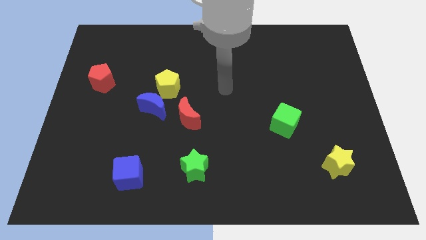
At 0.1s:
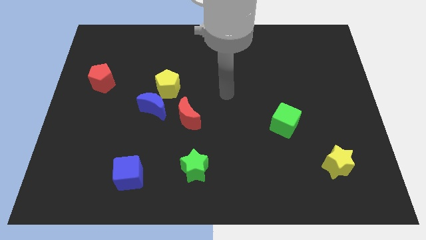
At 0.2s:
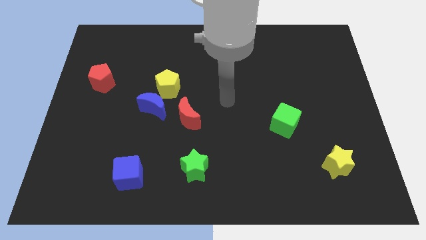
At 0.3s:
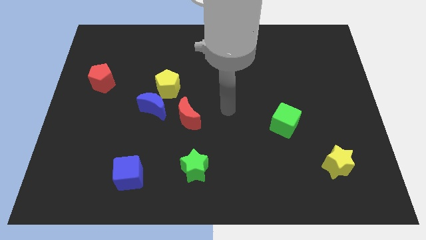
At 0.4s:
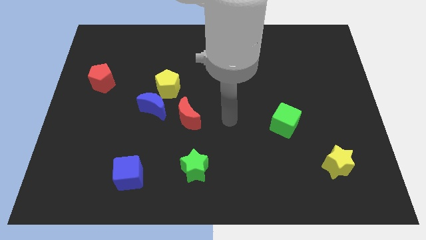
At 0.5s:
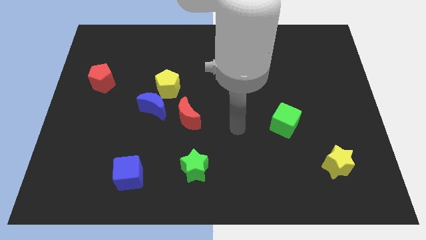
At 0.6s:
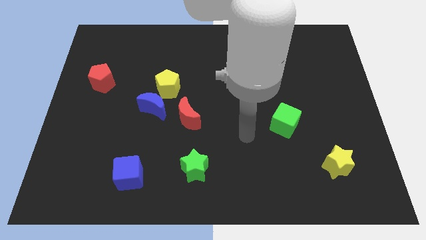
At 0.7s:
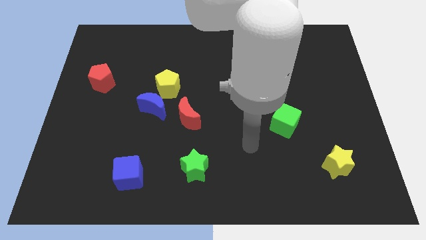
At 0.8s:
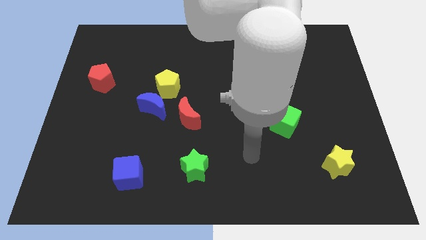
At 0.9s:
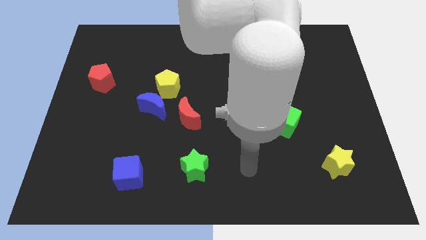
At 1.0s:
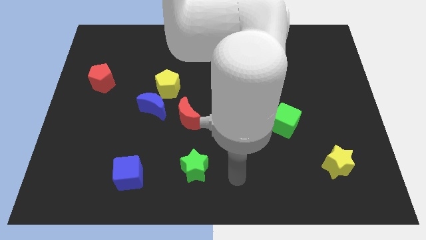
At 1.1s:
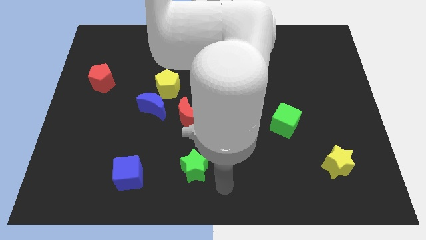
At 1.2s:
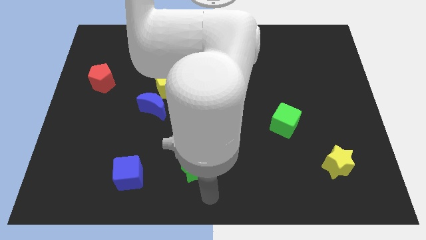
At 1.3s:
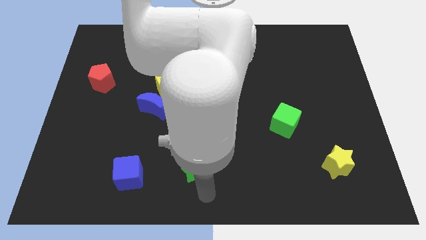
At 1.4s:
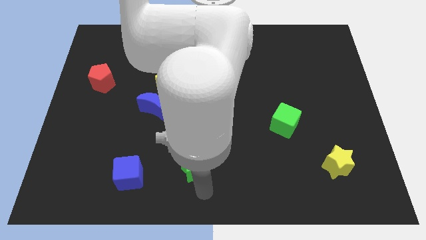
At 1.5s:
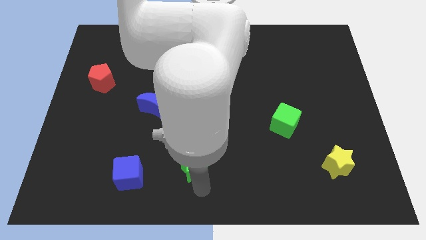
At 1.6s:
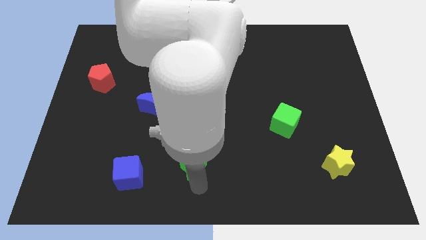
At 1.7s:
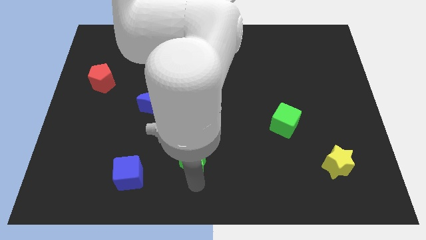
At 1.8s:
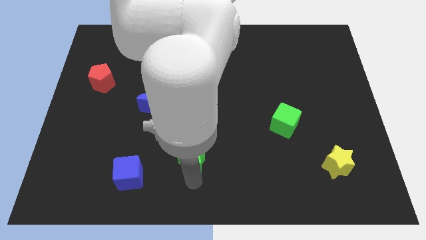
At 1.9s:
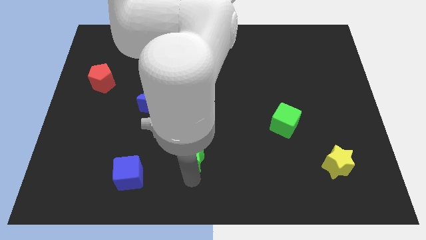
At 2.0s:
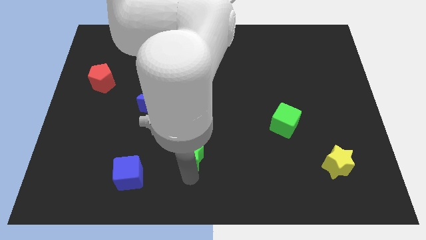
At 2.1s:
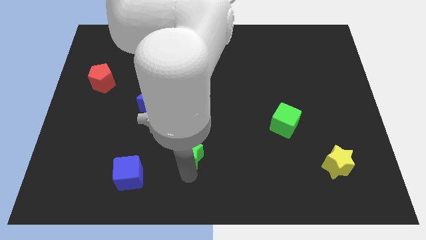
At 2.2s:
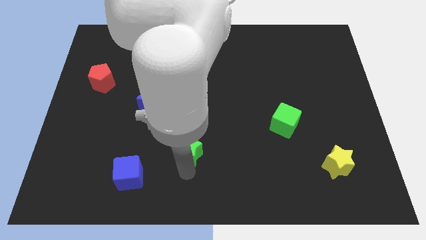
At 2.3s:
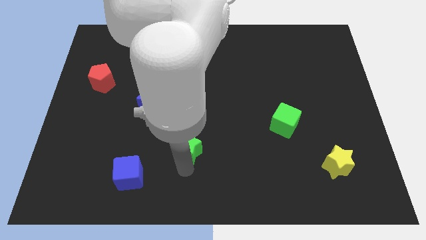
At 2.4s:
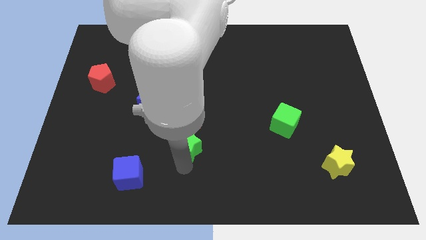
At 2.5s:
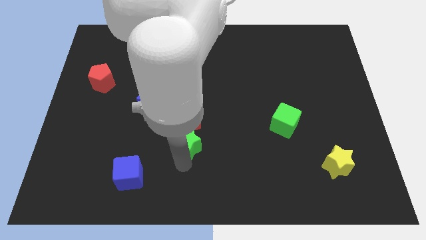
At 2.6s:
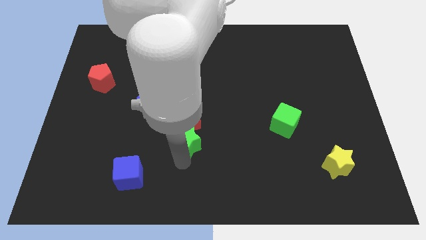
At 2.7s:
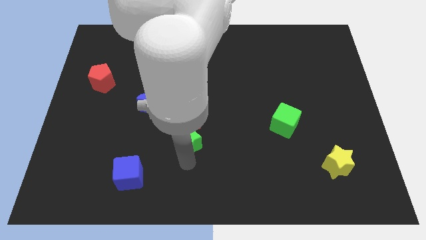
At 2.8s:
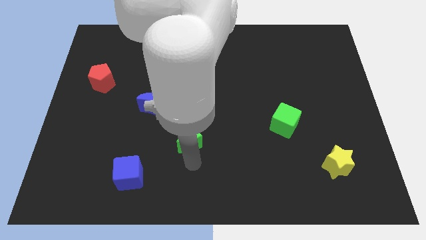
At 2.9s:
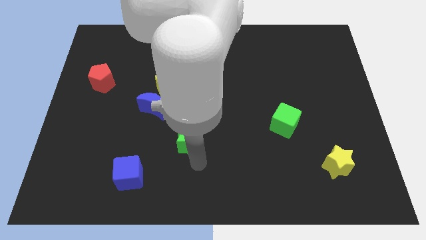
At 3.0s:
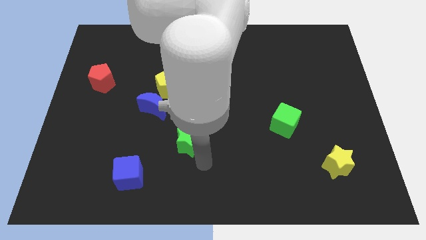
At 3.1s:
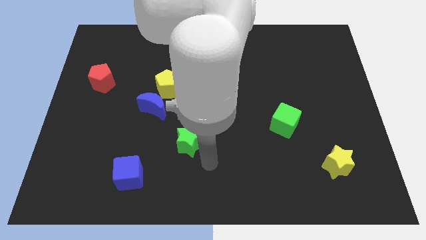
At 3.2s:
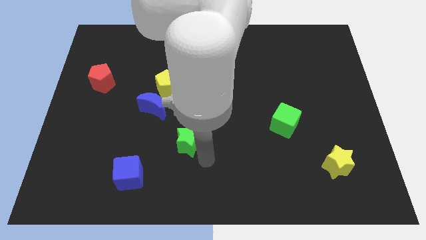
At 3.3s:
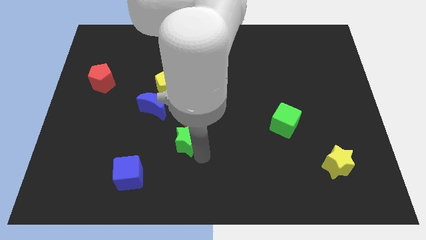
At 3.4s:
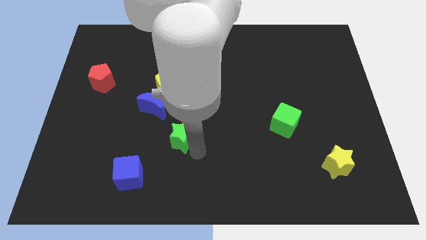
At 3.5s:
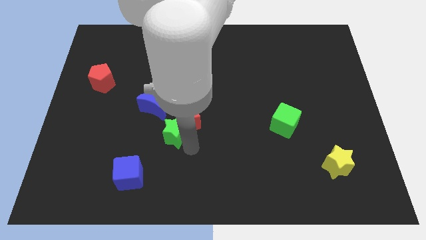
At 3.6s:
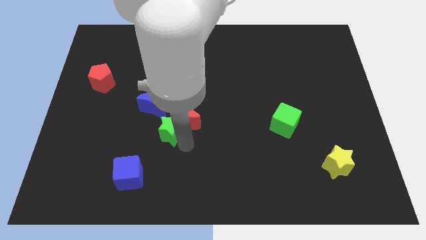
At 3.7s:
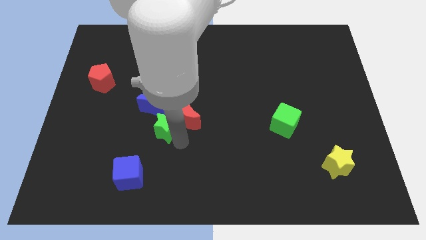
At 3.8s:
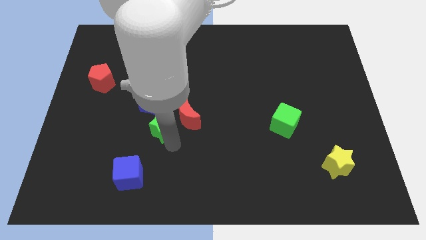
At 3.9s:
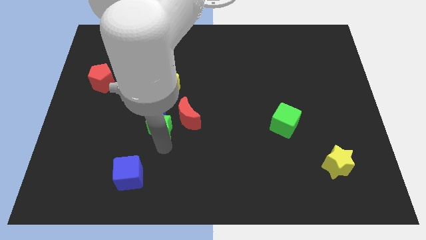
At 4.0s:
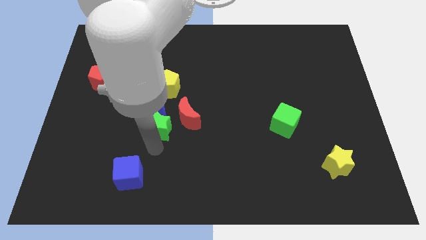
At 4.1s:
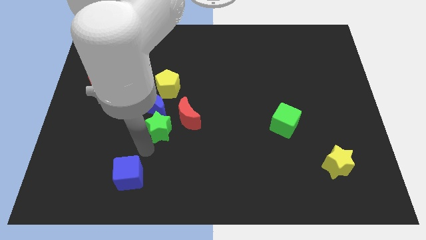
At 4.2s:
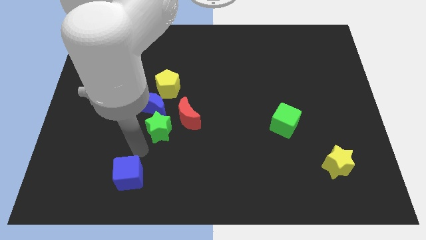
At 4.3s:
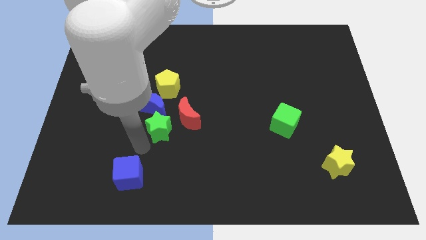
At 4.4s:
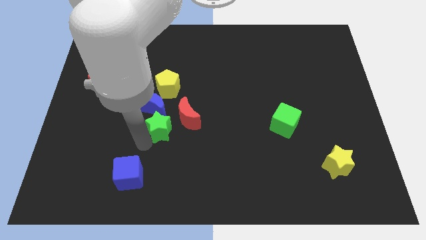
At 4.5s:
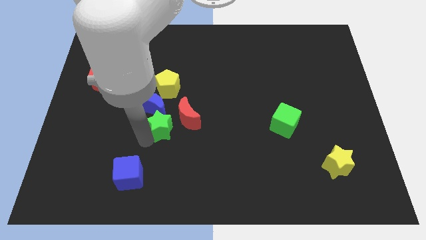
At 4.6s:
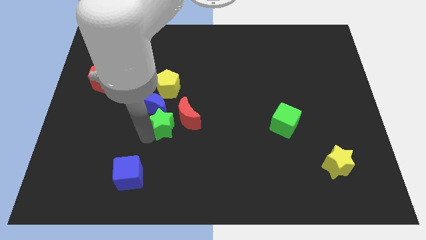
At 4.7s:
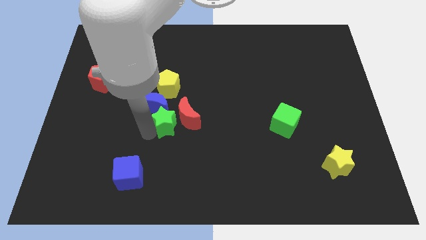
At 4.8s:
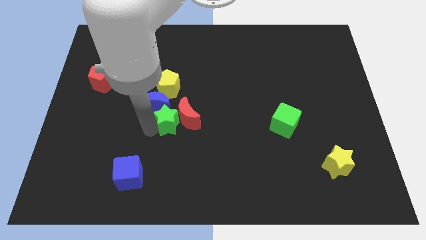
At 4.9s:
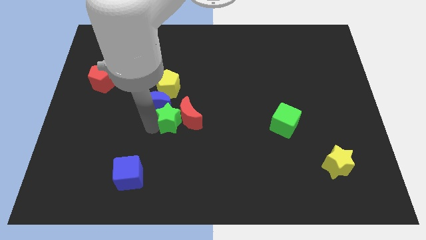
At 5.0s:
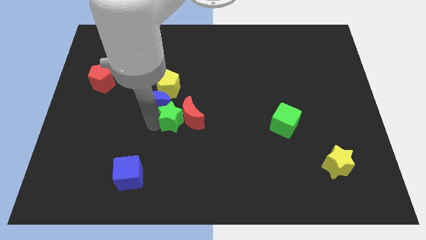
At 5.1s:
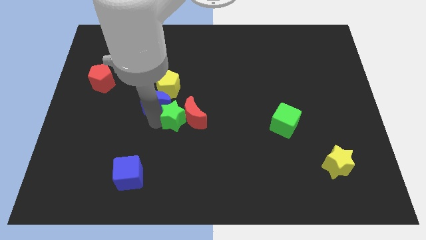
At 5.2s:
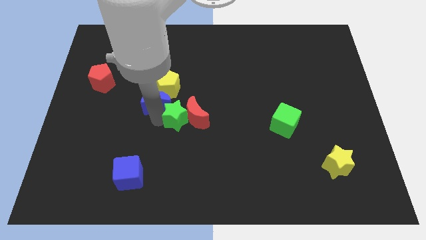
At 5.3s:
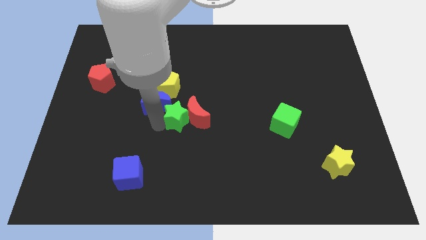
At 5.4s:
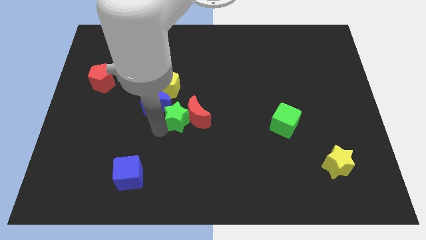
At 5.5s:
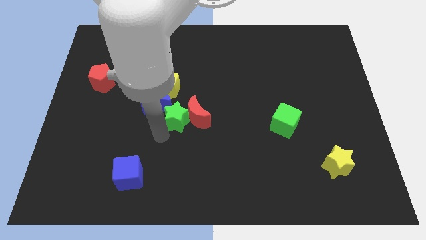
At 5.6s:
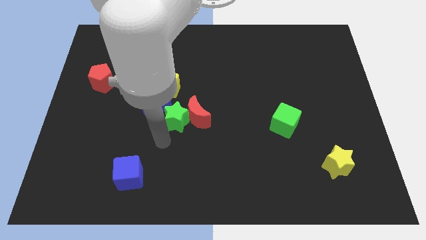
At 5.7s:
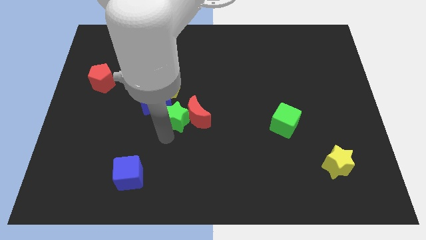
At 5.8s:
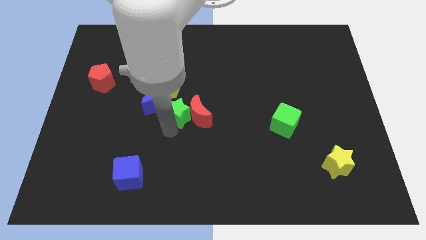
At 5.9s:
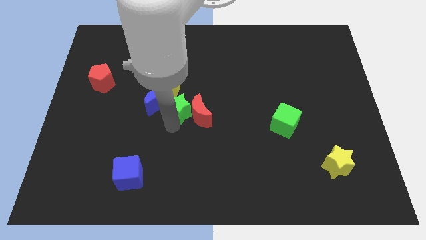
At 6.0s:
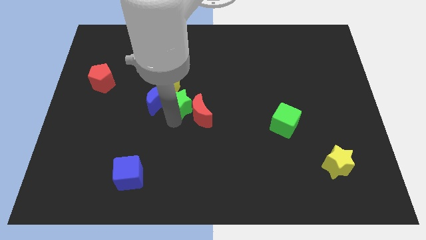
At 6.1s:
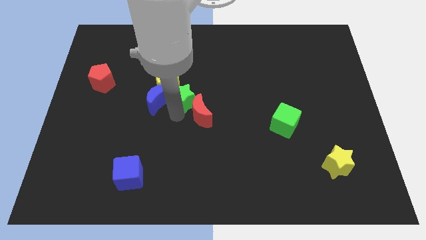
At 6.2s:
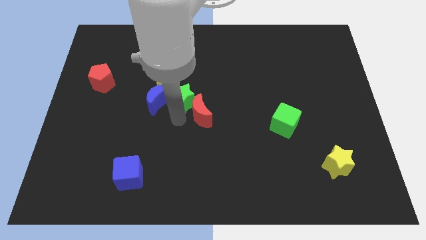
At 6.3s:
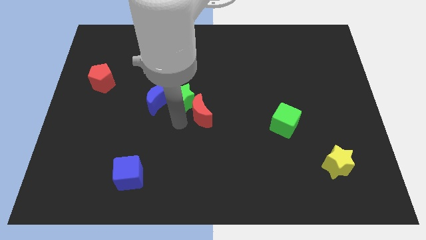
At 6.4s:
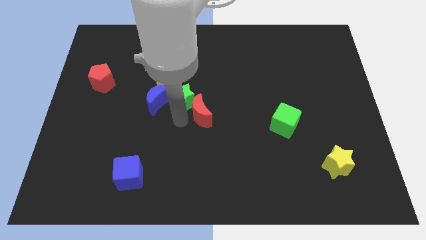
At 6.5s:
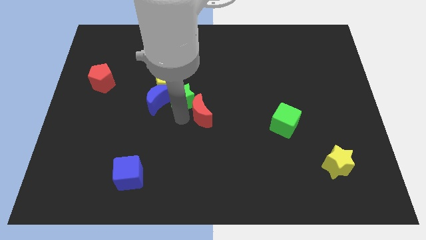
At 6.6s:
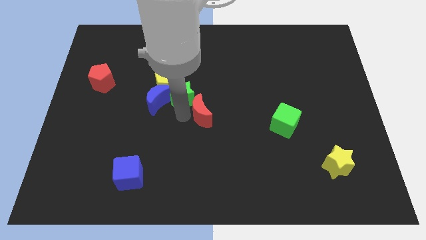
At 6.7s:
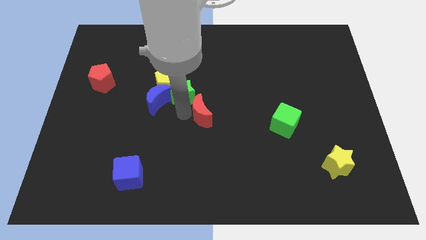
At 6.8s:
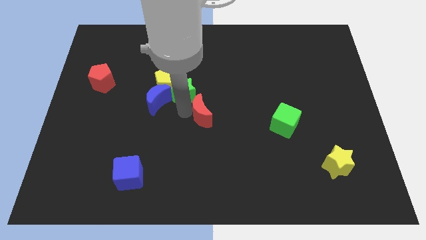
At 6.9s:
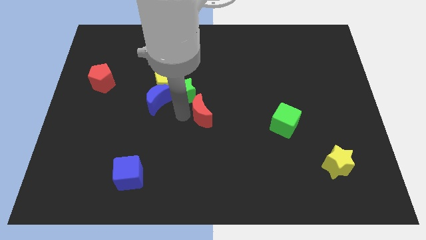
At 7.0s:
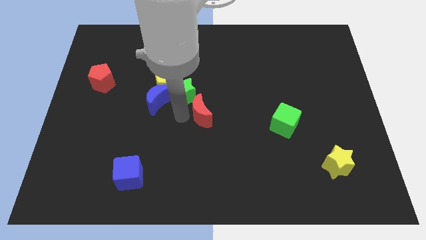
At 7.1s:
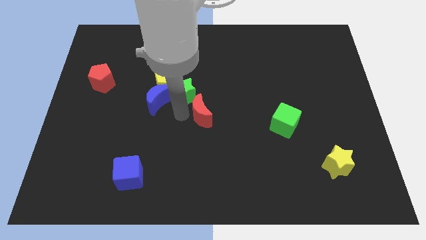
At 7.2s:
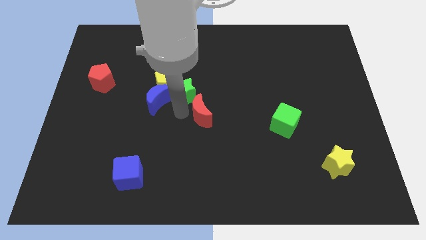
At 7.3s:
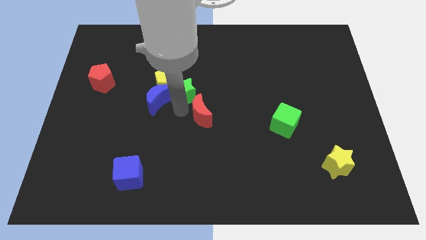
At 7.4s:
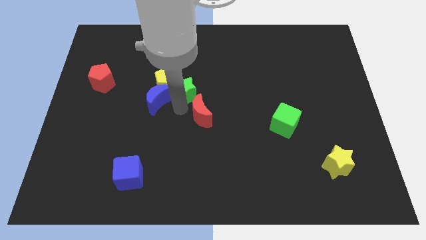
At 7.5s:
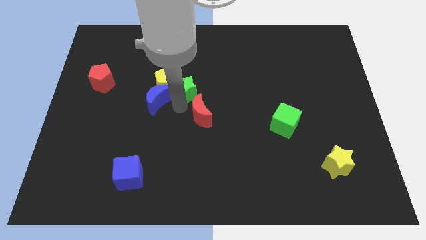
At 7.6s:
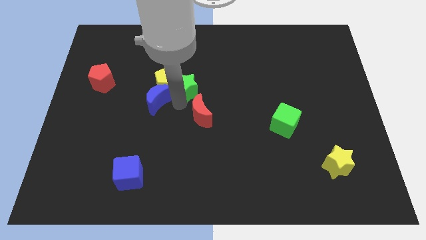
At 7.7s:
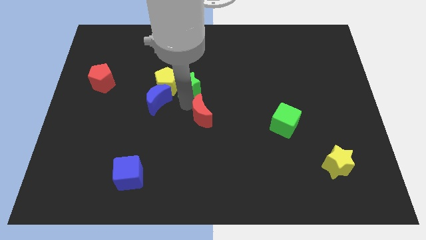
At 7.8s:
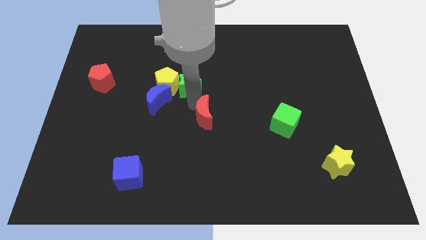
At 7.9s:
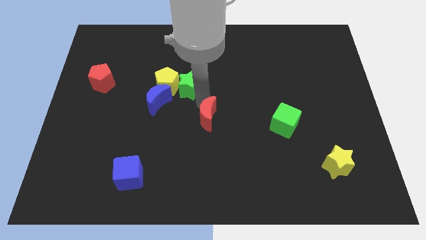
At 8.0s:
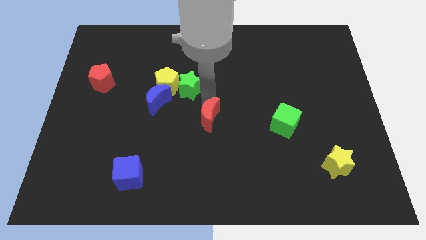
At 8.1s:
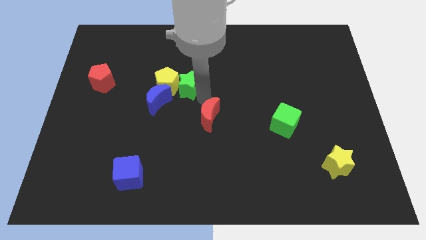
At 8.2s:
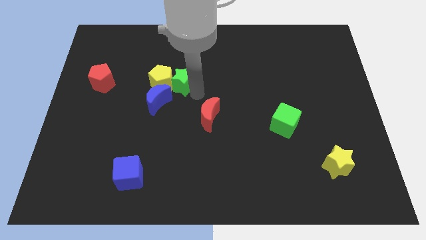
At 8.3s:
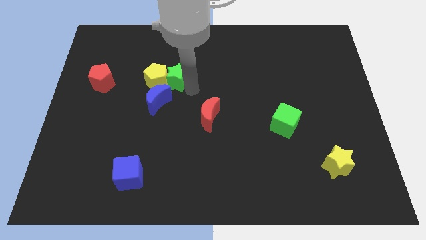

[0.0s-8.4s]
push the green star above the blue moon

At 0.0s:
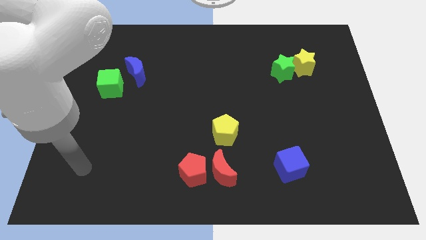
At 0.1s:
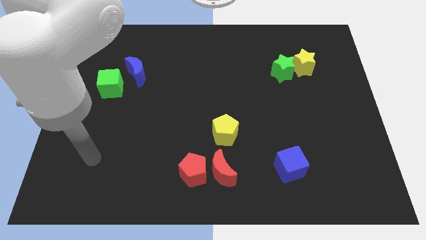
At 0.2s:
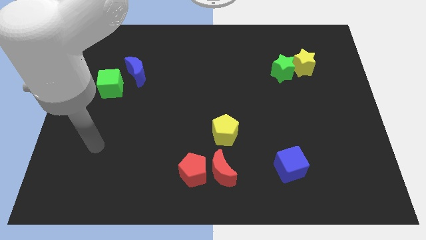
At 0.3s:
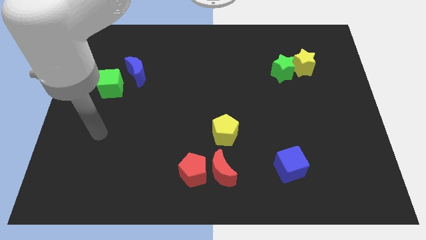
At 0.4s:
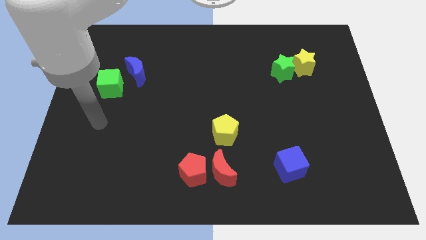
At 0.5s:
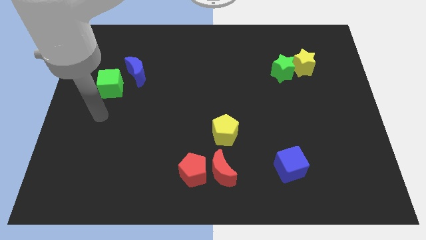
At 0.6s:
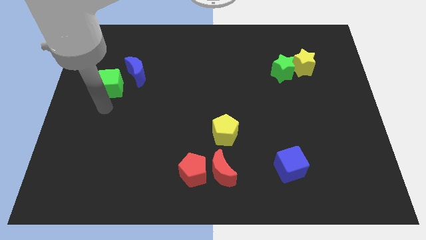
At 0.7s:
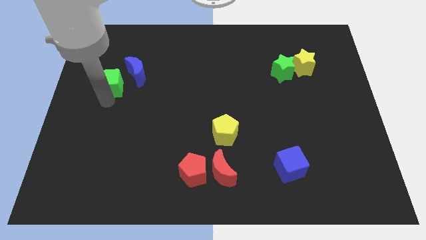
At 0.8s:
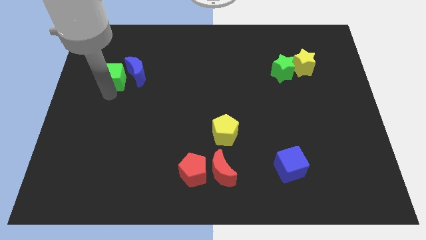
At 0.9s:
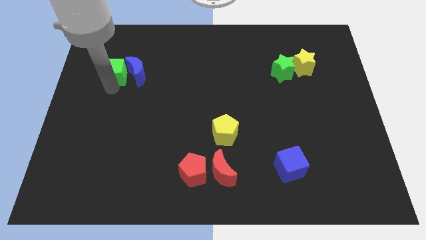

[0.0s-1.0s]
put the green cube diagonally up and to the left of the blue moon
